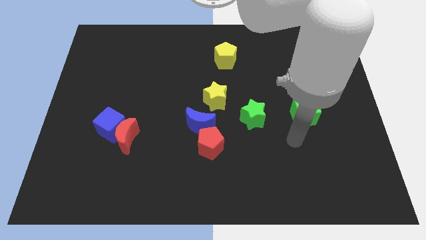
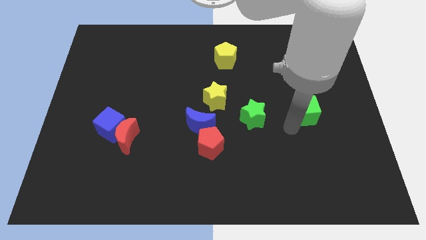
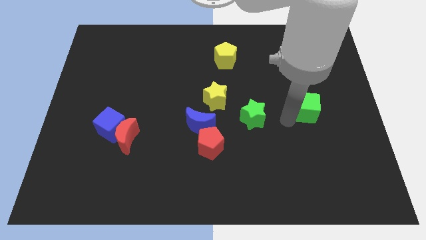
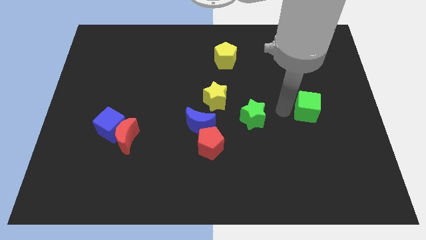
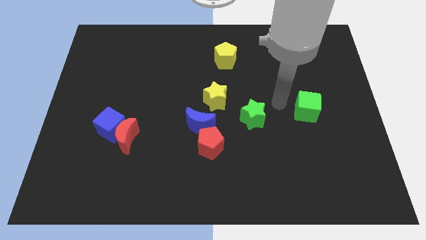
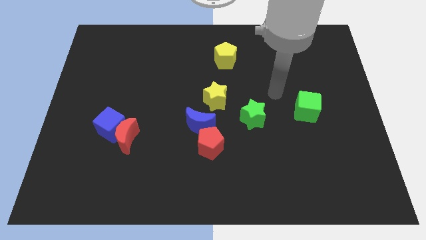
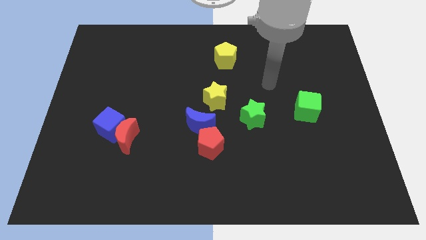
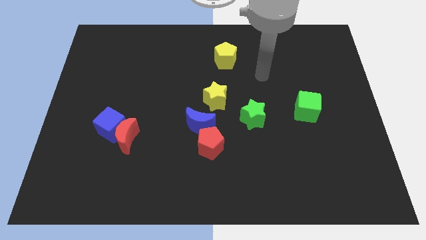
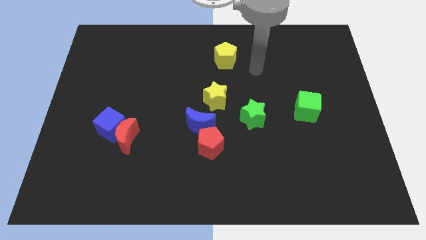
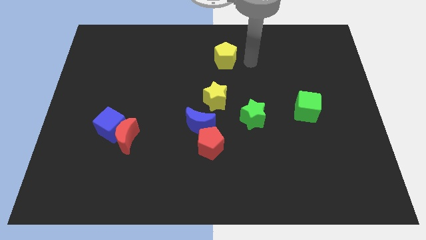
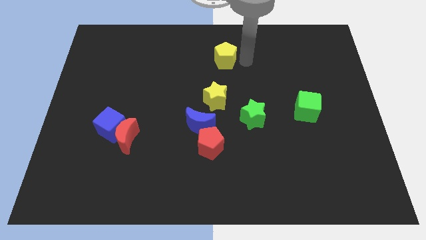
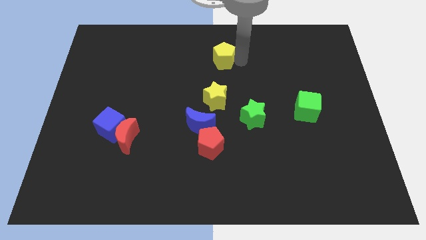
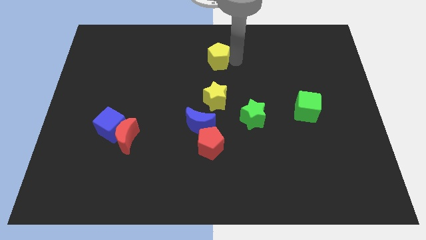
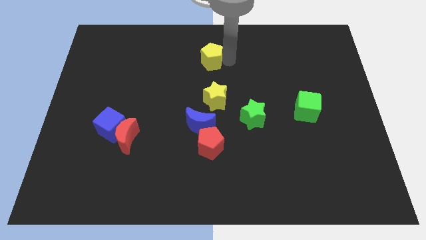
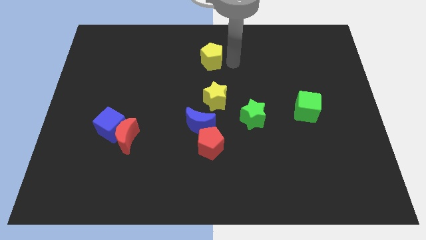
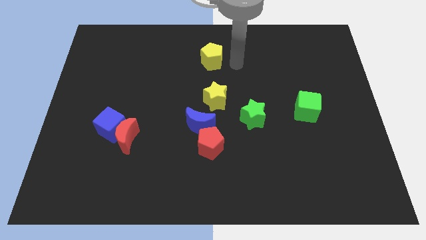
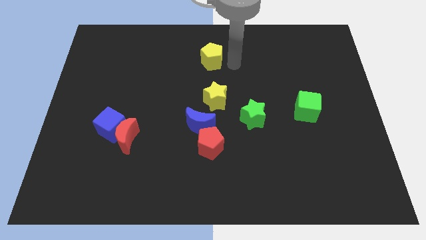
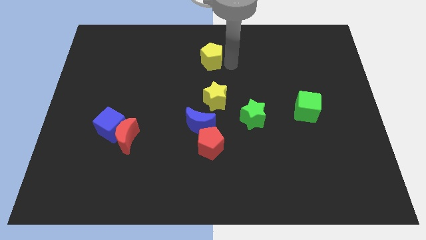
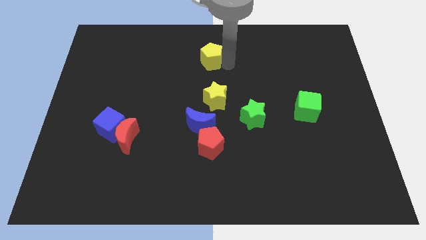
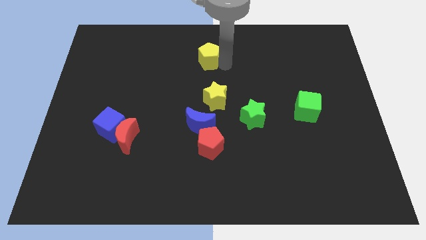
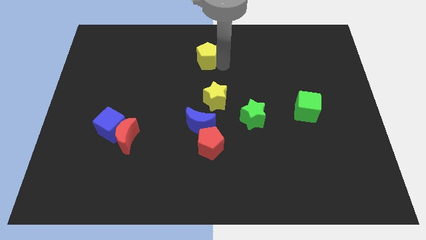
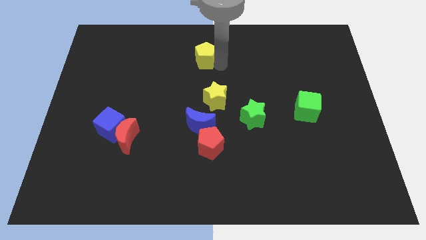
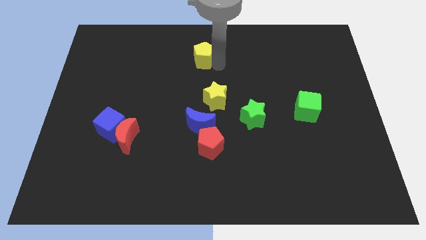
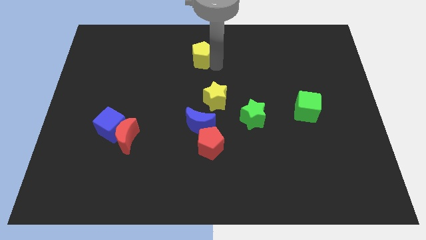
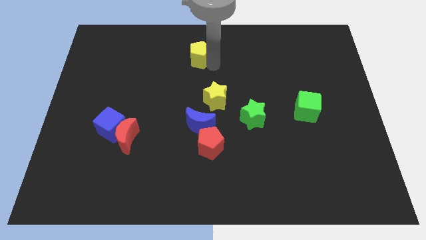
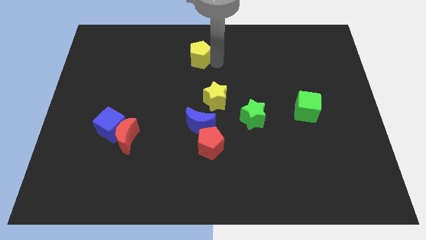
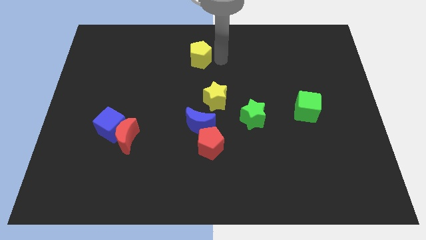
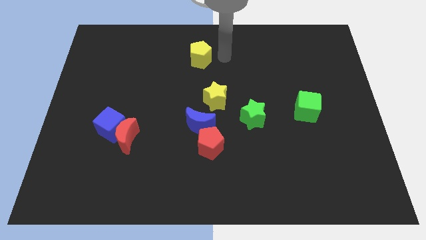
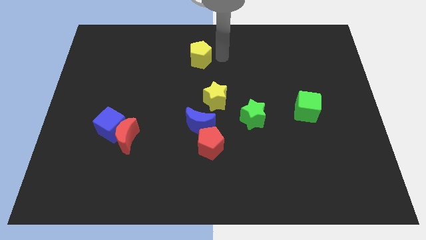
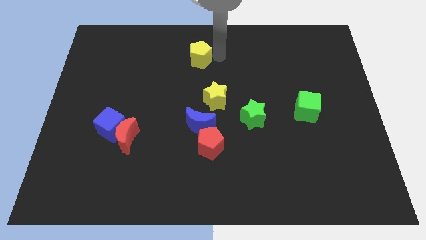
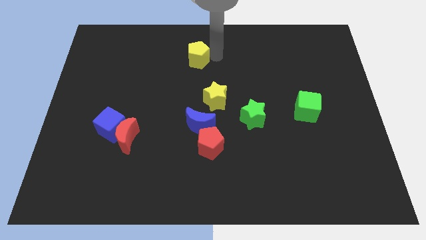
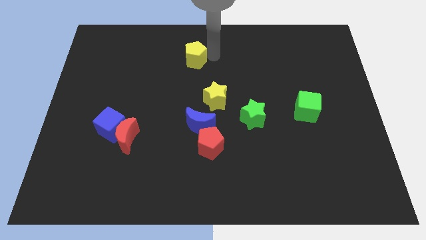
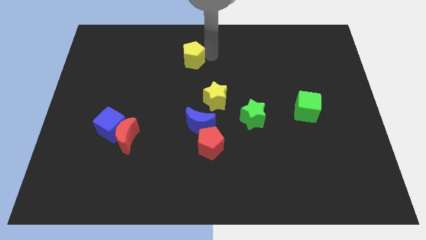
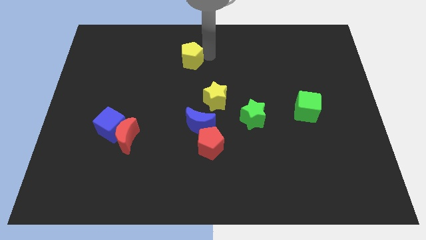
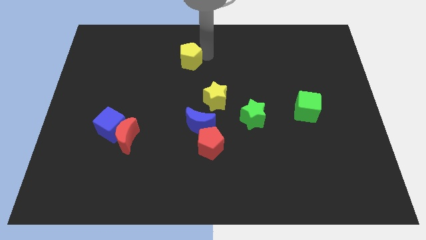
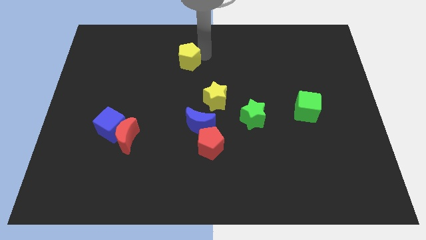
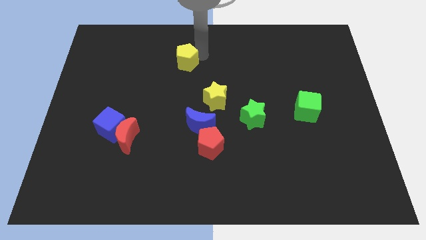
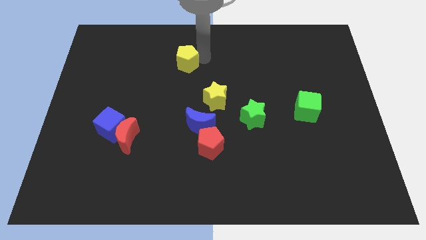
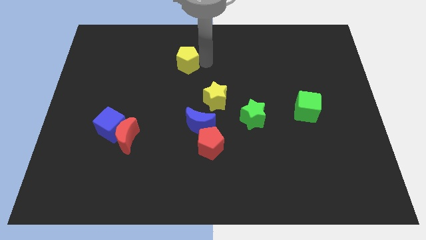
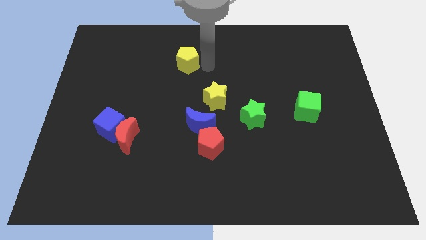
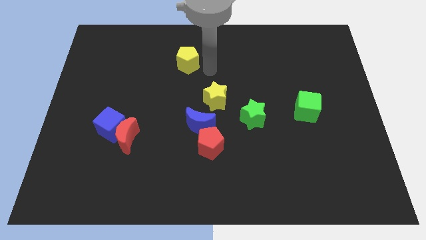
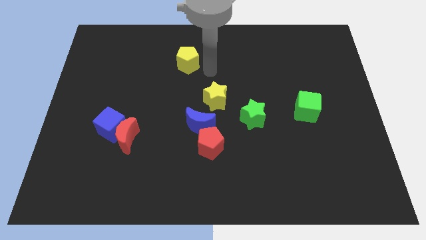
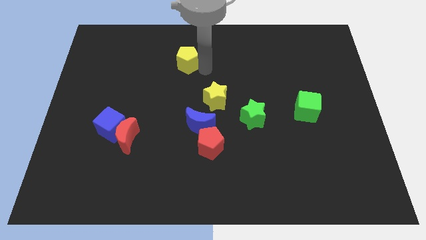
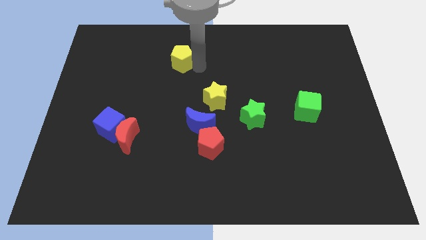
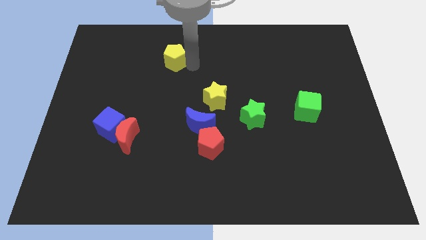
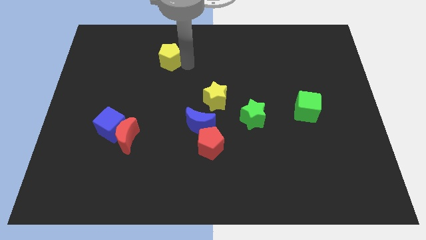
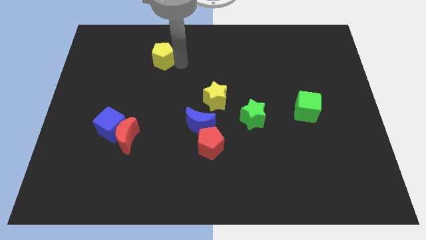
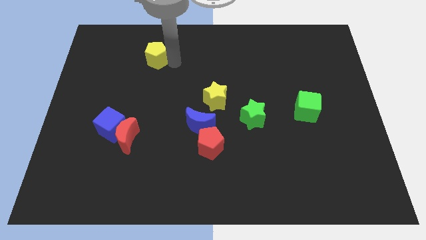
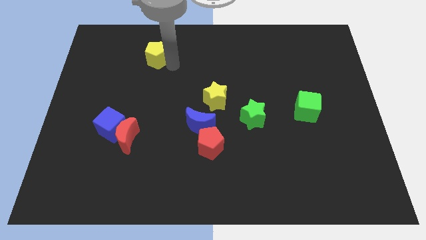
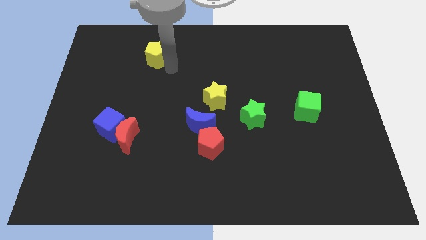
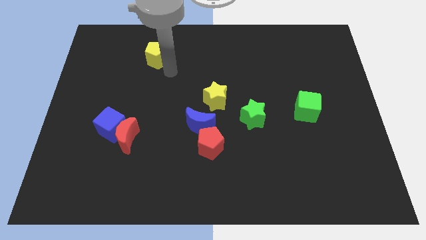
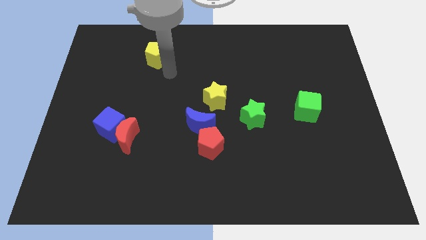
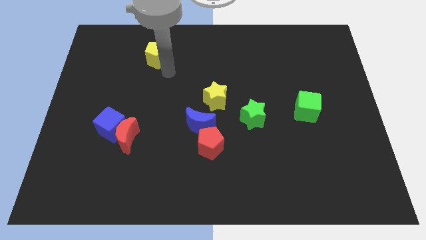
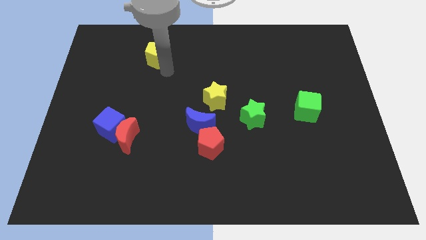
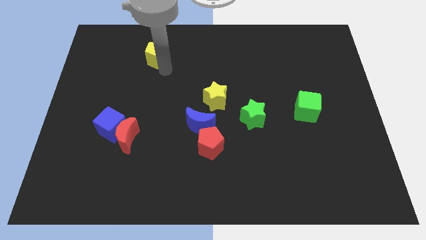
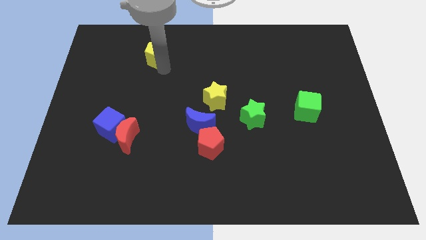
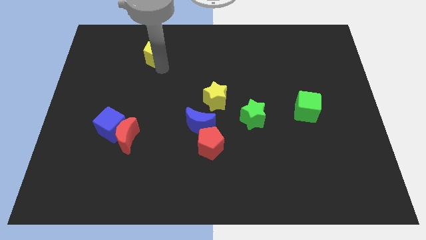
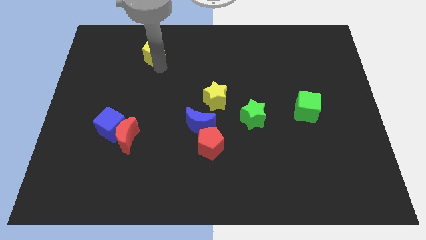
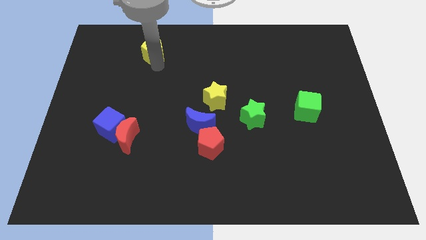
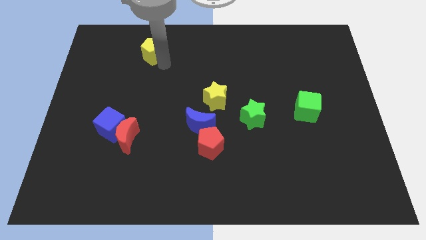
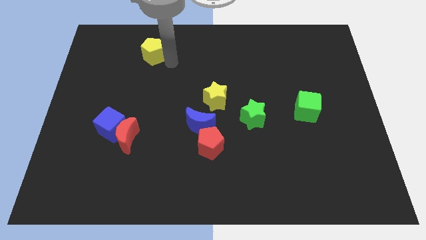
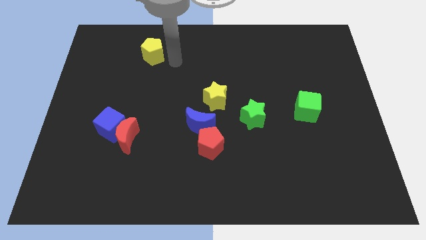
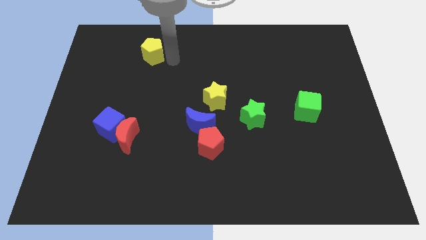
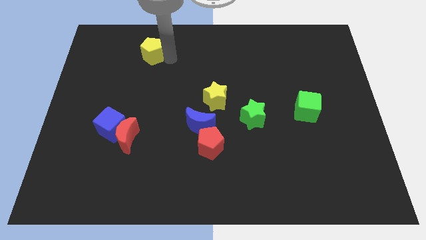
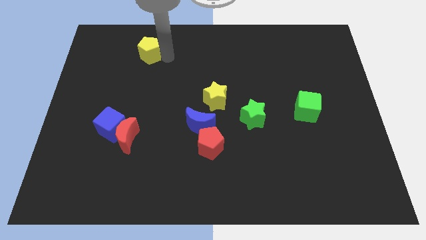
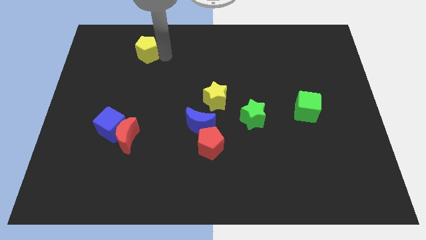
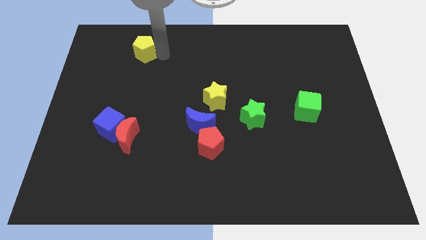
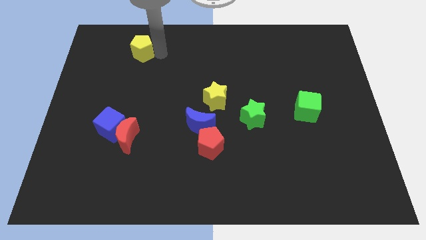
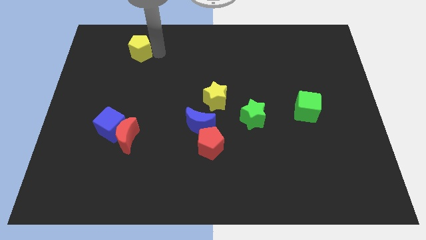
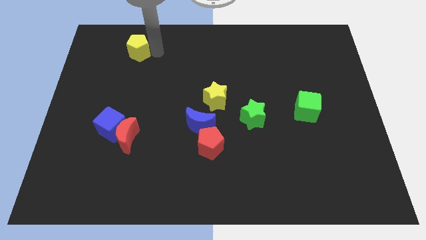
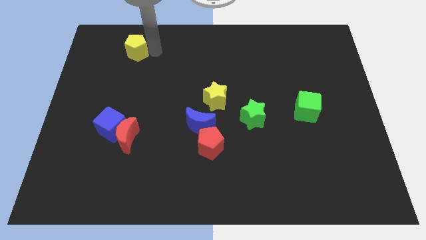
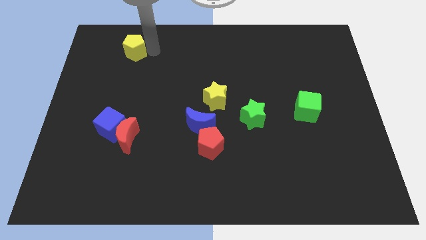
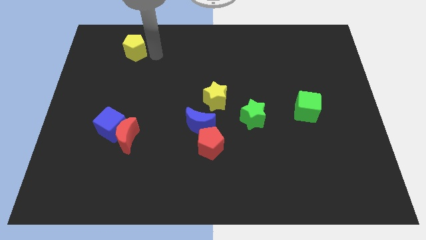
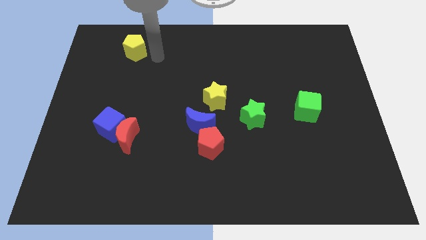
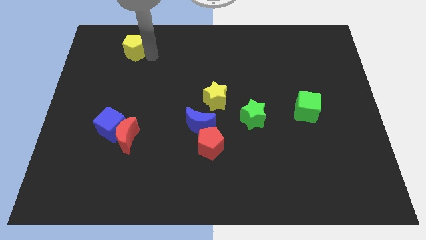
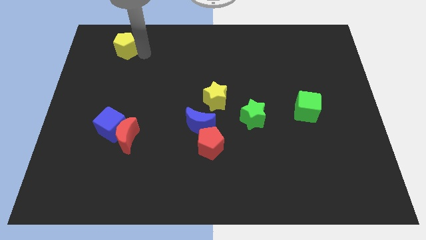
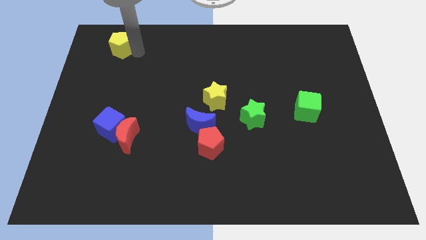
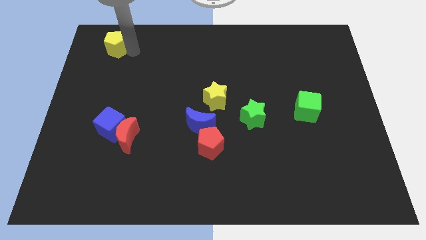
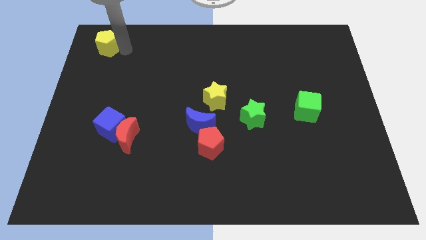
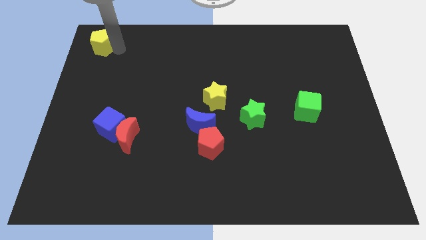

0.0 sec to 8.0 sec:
put the yellow pentagon to the top left
